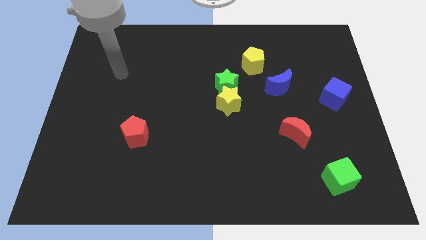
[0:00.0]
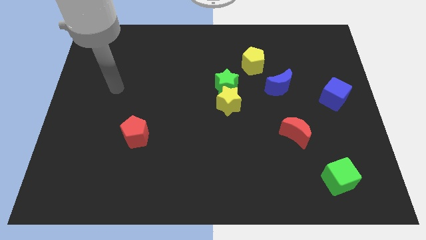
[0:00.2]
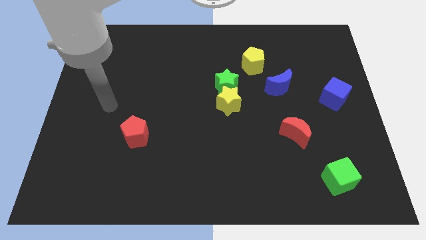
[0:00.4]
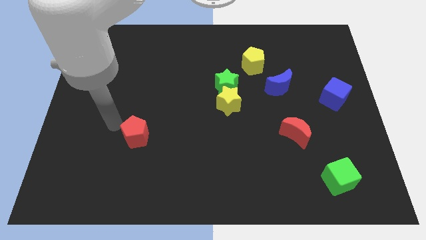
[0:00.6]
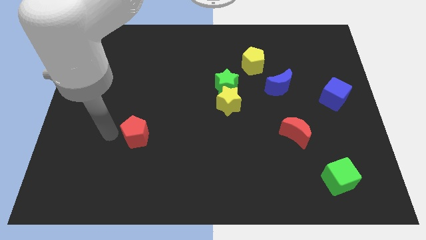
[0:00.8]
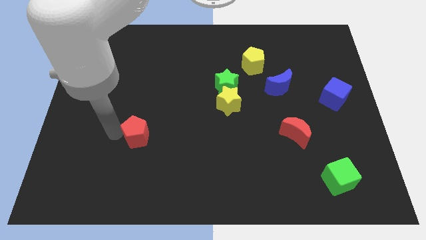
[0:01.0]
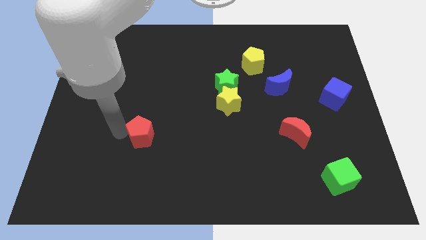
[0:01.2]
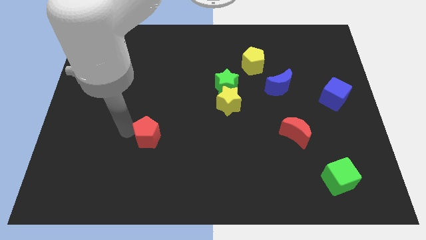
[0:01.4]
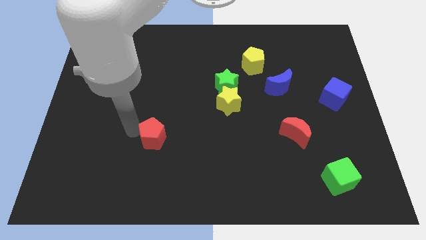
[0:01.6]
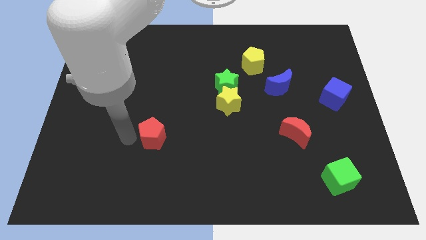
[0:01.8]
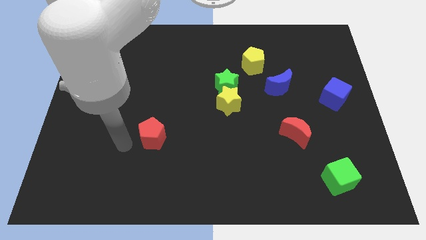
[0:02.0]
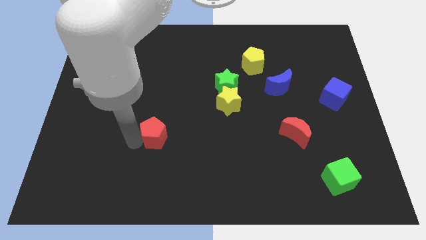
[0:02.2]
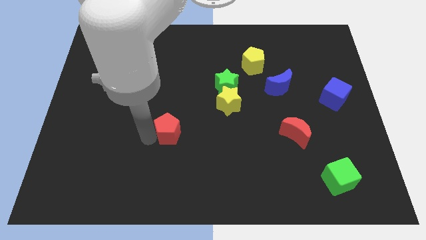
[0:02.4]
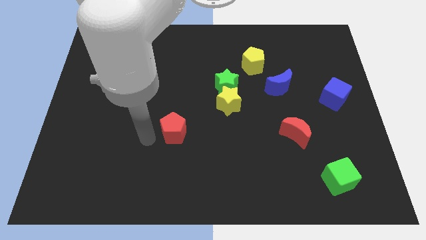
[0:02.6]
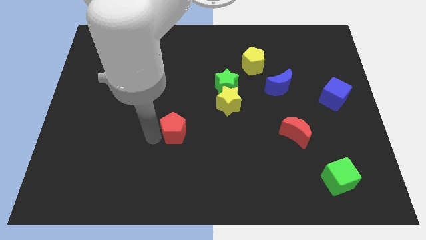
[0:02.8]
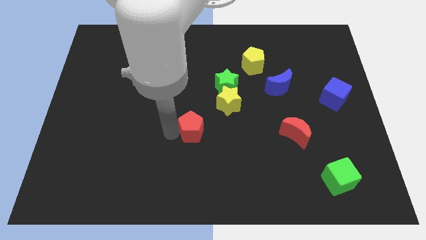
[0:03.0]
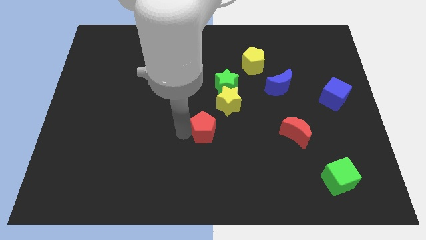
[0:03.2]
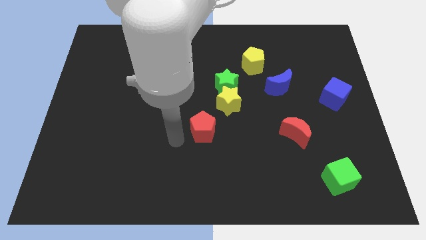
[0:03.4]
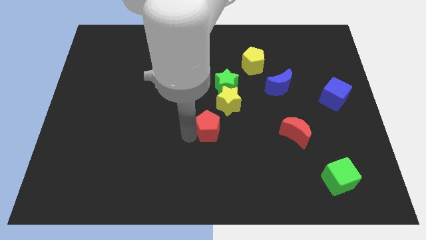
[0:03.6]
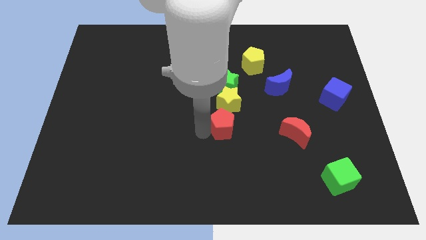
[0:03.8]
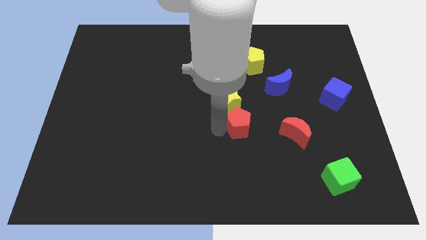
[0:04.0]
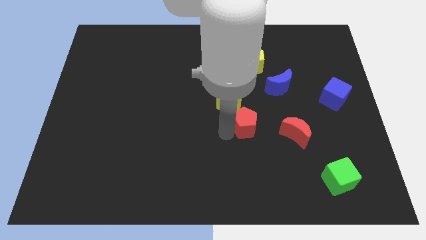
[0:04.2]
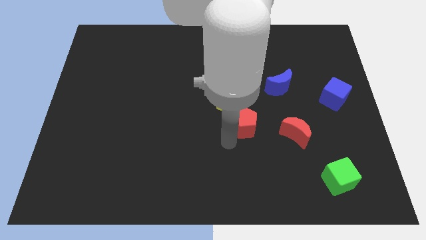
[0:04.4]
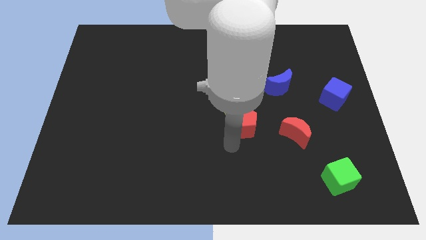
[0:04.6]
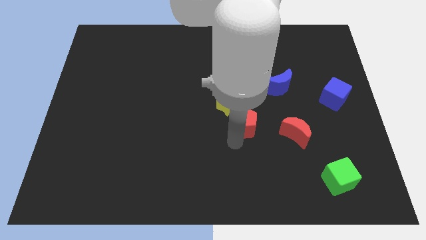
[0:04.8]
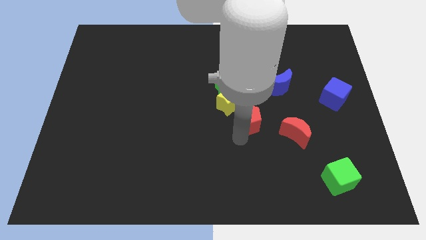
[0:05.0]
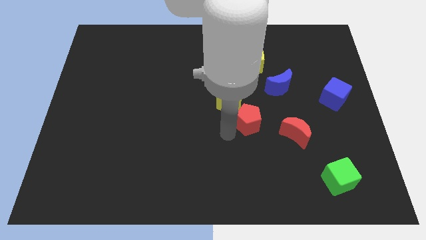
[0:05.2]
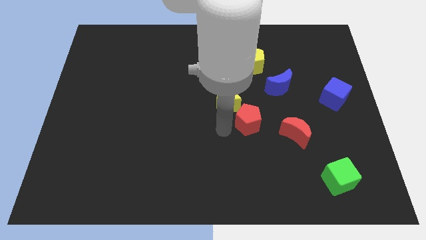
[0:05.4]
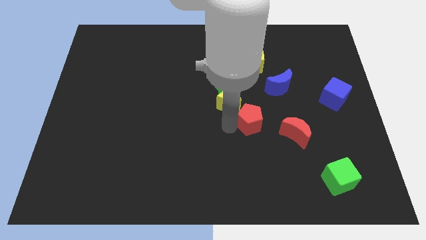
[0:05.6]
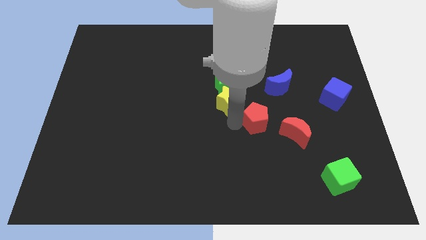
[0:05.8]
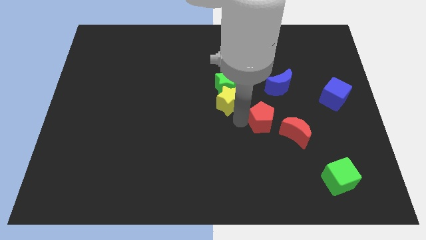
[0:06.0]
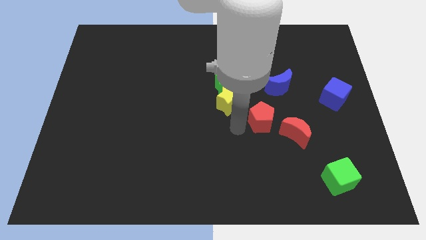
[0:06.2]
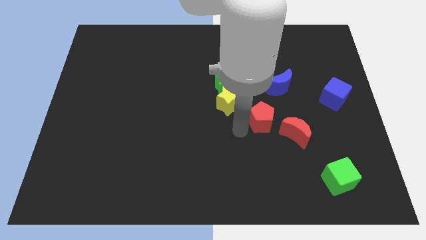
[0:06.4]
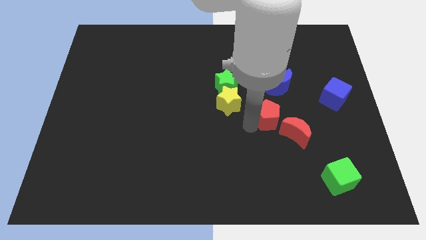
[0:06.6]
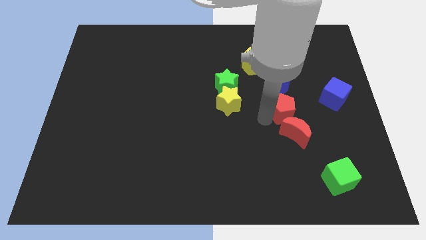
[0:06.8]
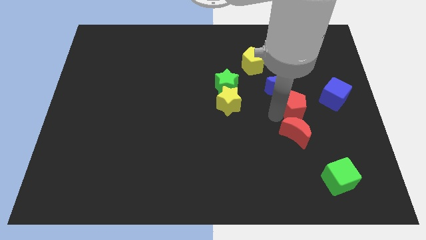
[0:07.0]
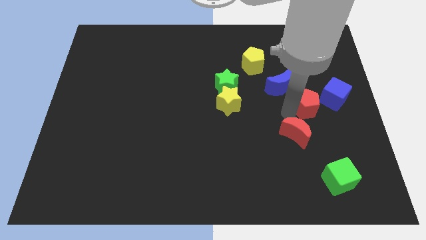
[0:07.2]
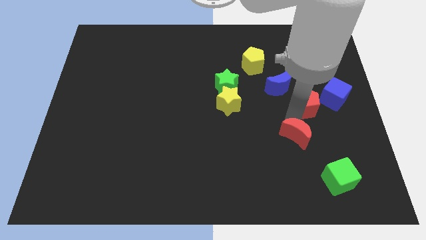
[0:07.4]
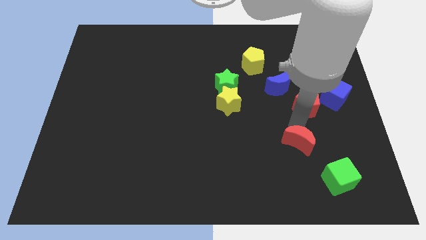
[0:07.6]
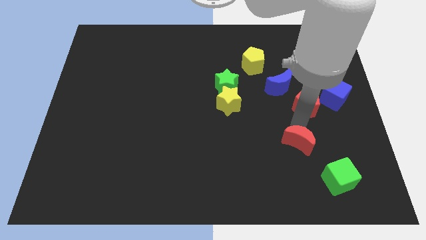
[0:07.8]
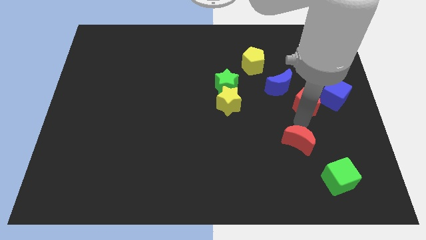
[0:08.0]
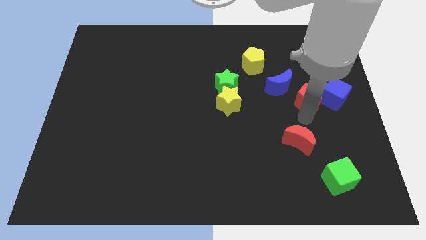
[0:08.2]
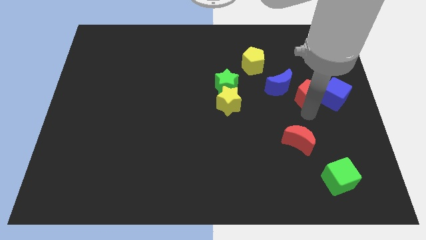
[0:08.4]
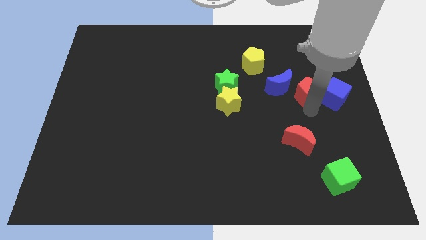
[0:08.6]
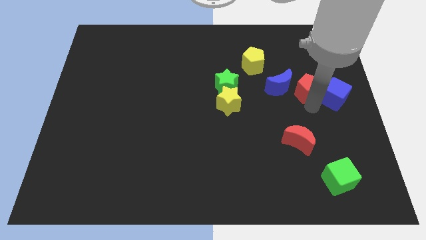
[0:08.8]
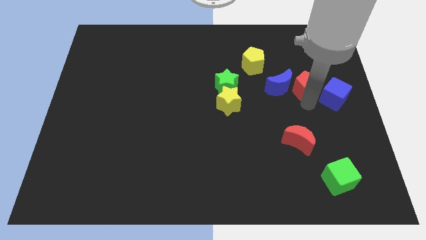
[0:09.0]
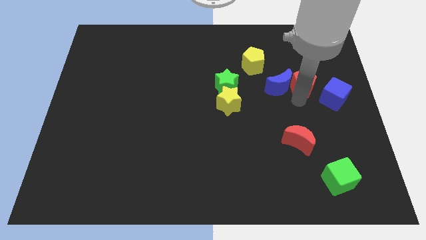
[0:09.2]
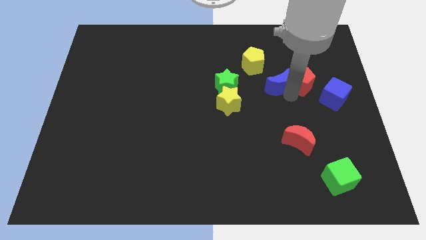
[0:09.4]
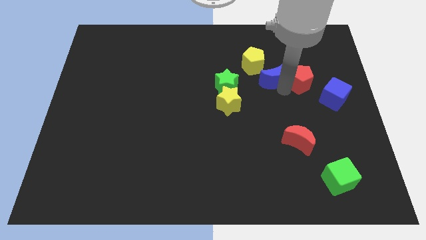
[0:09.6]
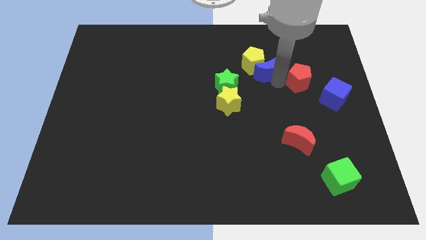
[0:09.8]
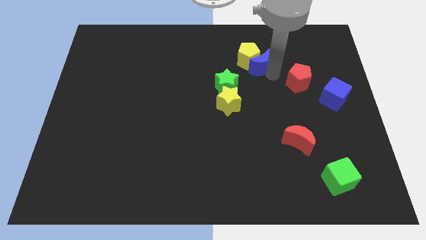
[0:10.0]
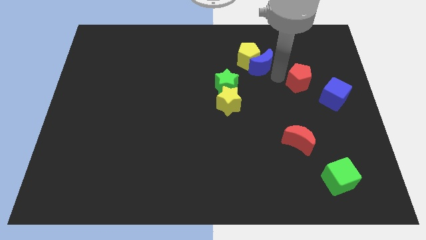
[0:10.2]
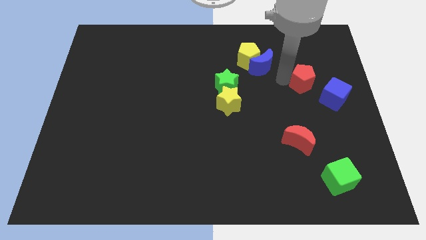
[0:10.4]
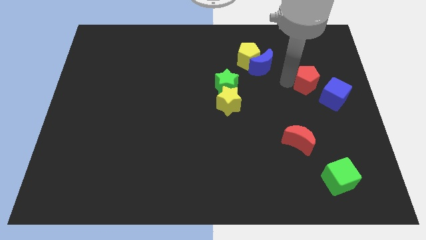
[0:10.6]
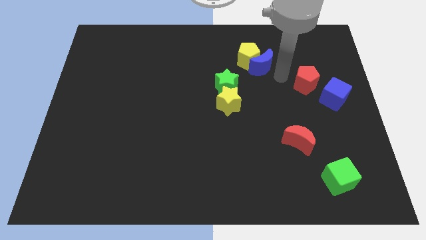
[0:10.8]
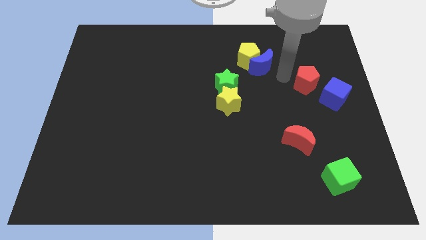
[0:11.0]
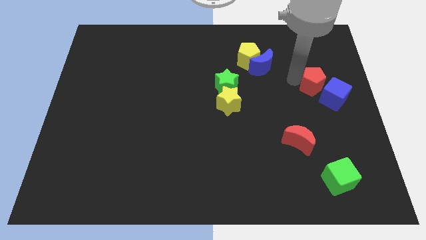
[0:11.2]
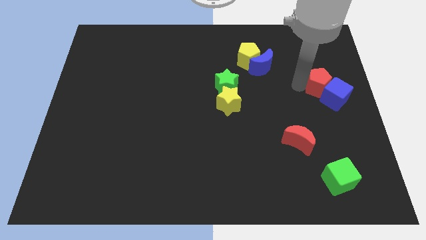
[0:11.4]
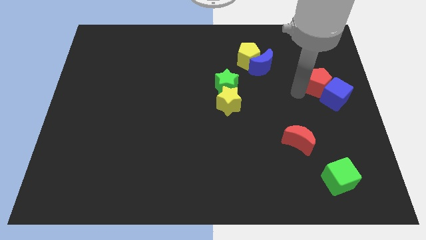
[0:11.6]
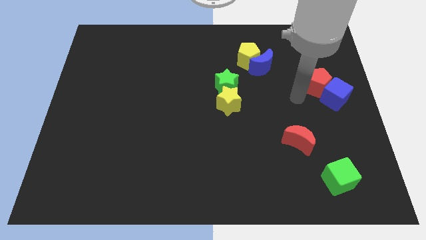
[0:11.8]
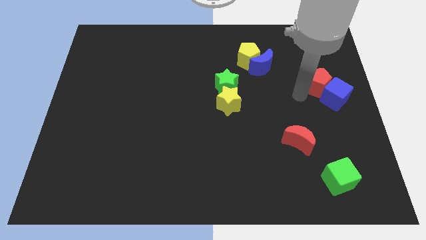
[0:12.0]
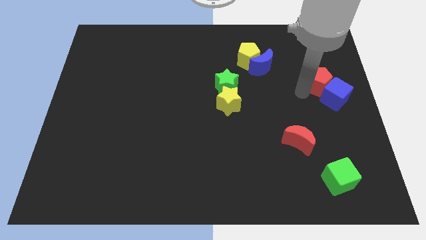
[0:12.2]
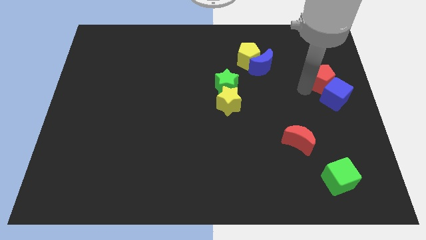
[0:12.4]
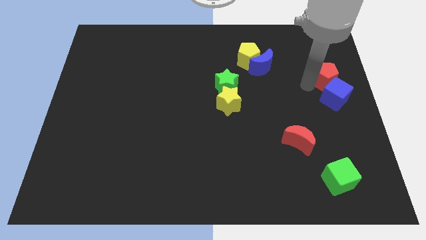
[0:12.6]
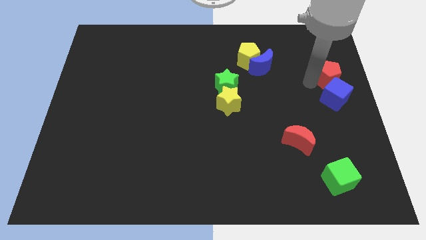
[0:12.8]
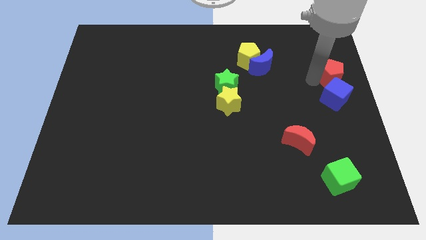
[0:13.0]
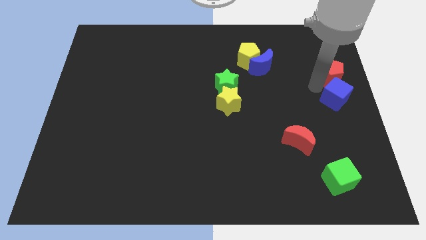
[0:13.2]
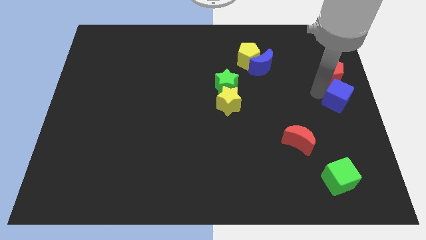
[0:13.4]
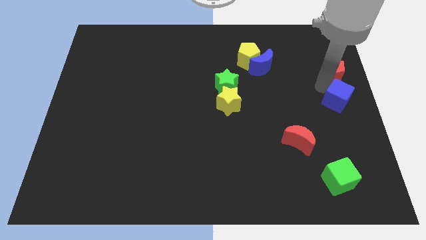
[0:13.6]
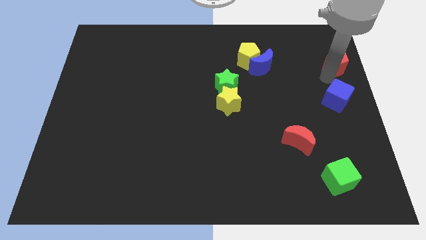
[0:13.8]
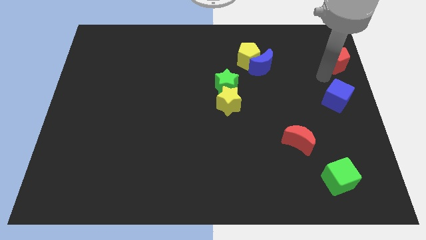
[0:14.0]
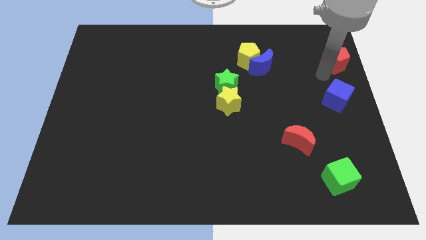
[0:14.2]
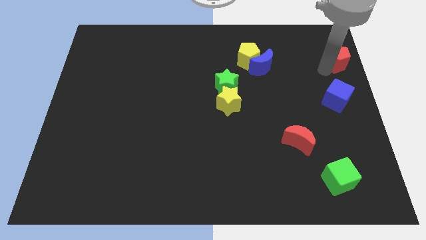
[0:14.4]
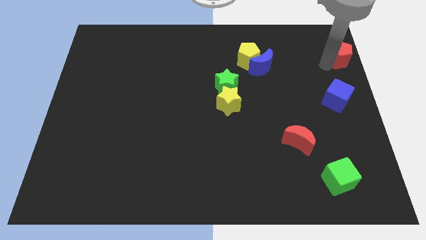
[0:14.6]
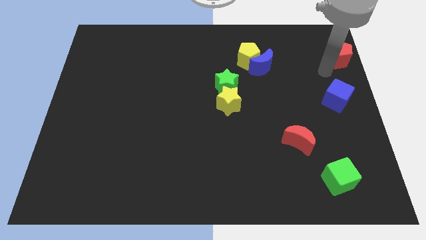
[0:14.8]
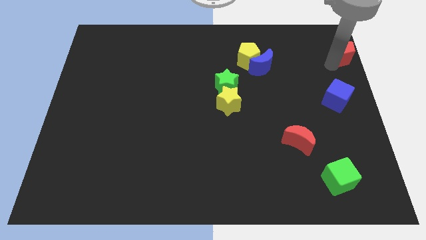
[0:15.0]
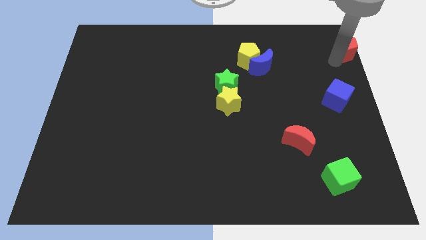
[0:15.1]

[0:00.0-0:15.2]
put the red pentagon to the upper right corner
